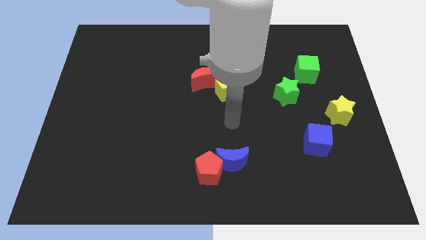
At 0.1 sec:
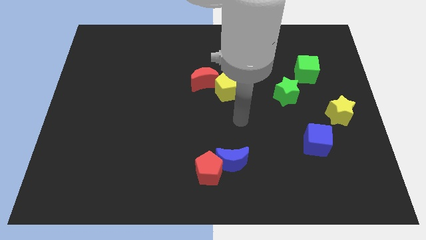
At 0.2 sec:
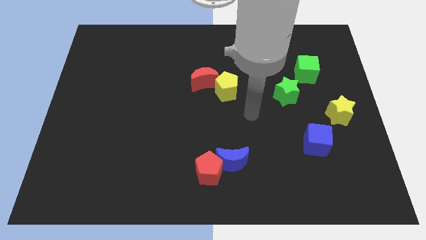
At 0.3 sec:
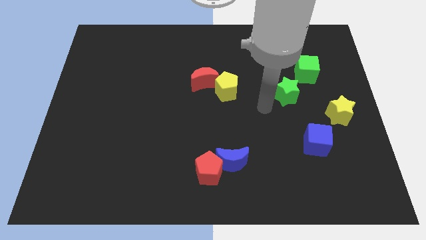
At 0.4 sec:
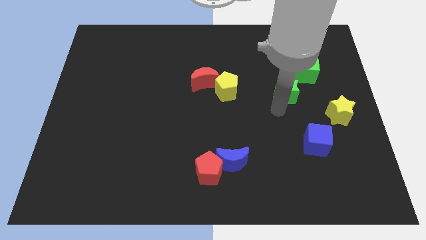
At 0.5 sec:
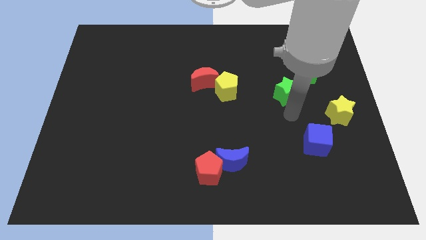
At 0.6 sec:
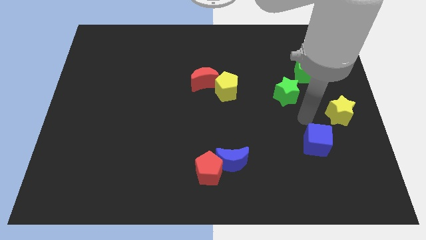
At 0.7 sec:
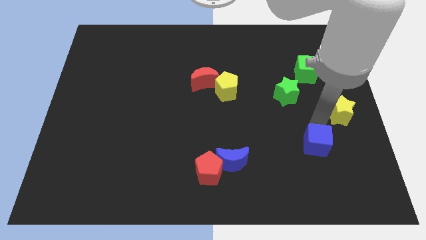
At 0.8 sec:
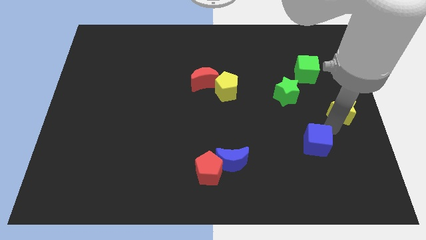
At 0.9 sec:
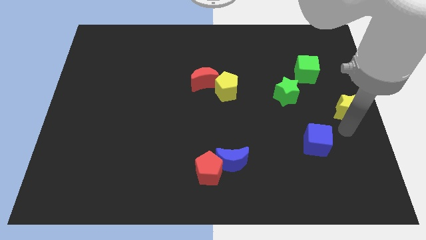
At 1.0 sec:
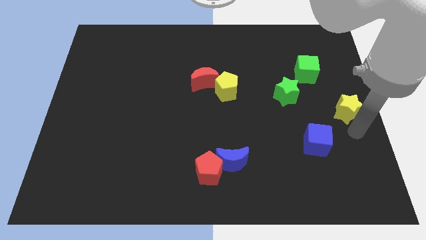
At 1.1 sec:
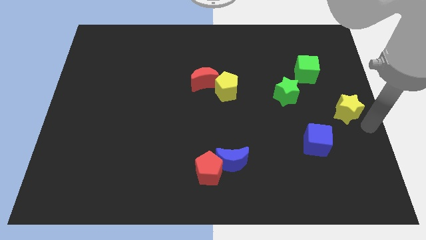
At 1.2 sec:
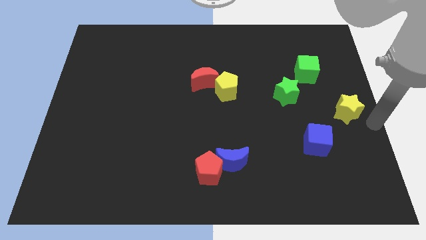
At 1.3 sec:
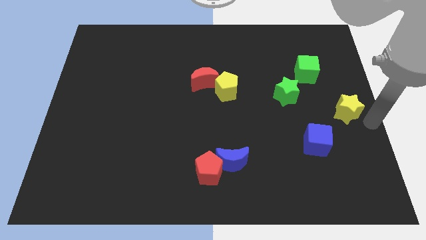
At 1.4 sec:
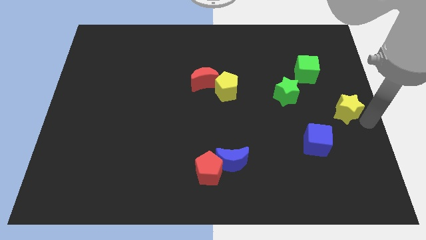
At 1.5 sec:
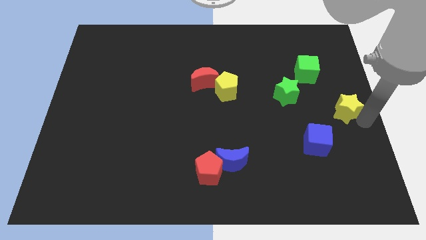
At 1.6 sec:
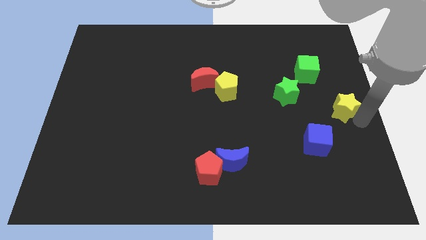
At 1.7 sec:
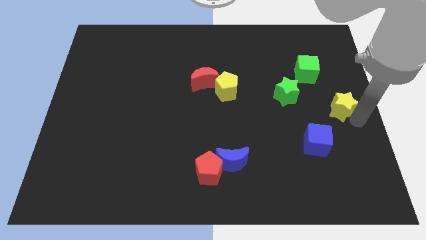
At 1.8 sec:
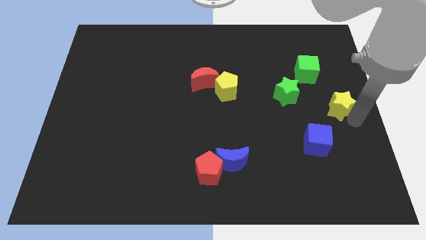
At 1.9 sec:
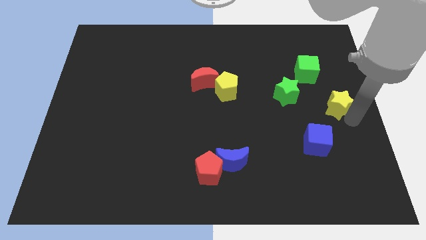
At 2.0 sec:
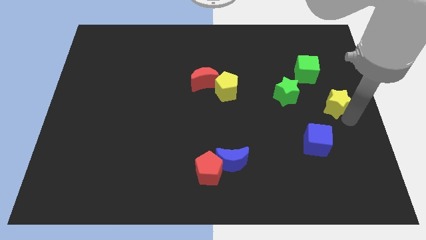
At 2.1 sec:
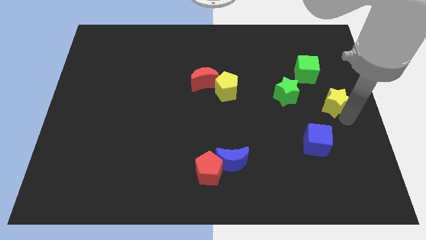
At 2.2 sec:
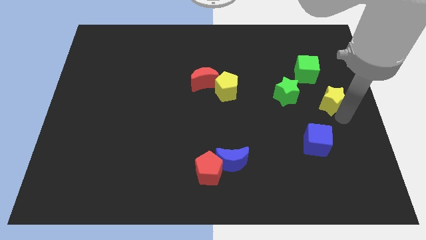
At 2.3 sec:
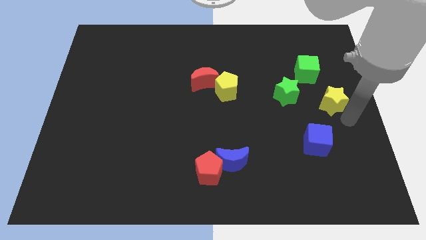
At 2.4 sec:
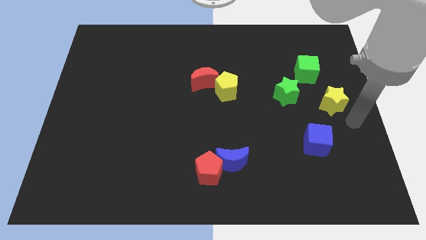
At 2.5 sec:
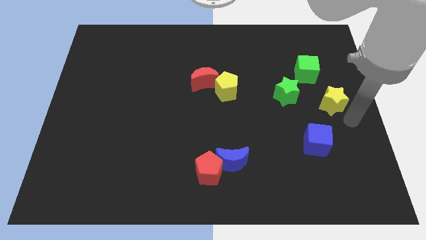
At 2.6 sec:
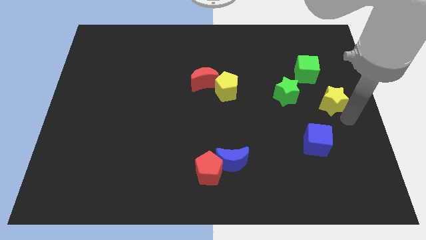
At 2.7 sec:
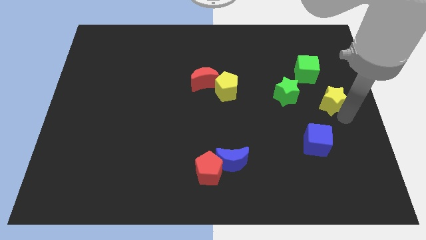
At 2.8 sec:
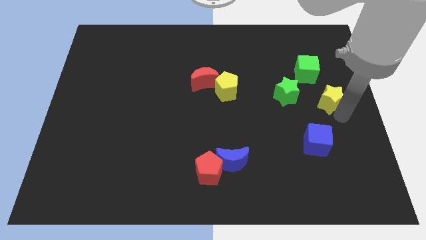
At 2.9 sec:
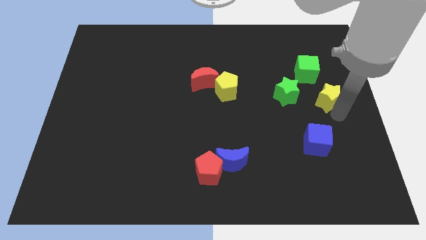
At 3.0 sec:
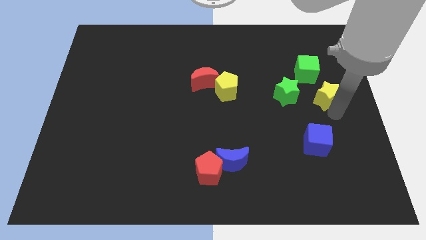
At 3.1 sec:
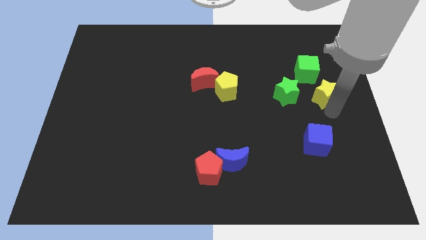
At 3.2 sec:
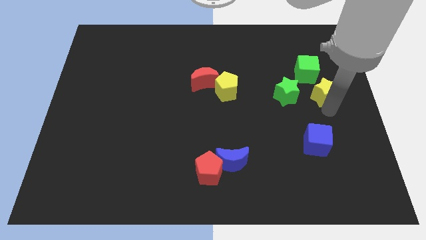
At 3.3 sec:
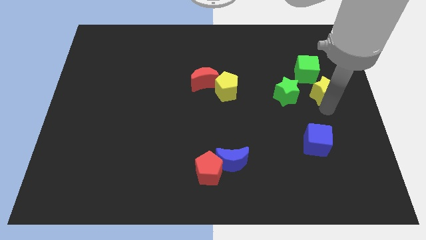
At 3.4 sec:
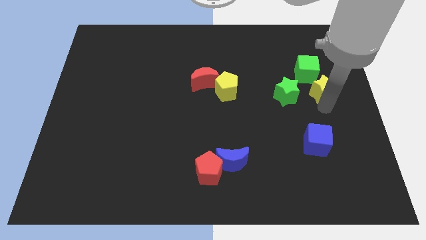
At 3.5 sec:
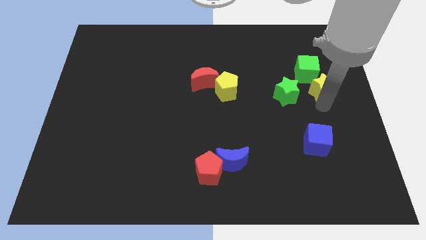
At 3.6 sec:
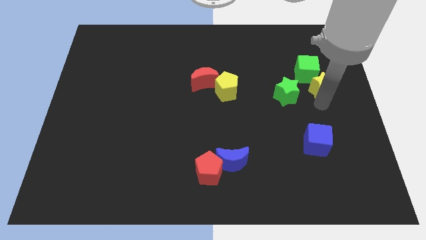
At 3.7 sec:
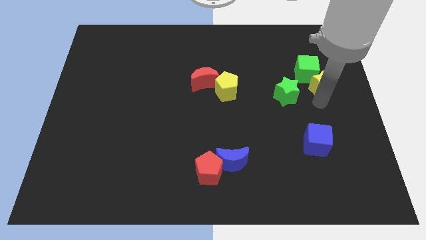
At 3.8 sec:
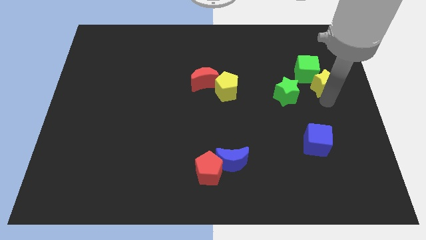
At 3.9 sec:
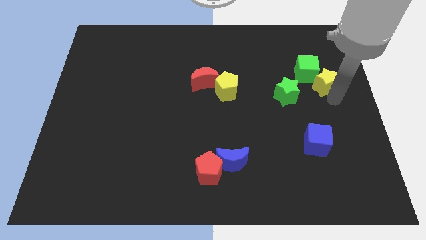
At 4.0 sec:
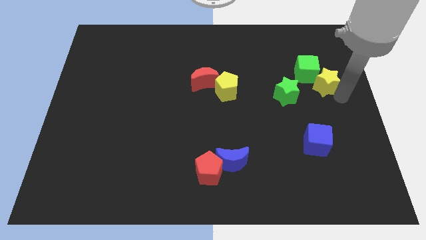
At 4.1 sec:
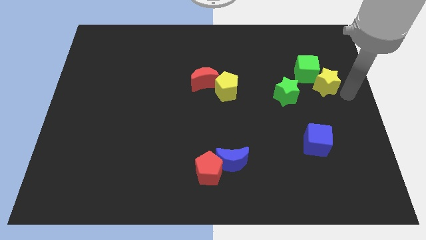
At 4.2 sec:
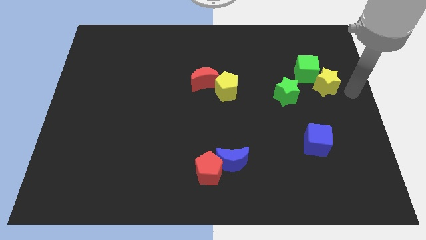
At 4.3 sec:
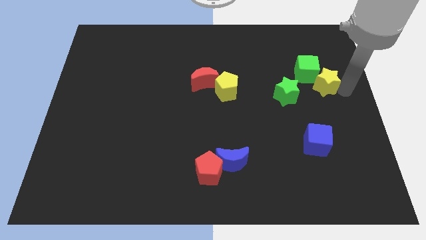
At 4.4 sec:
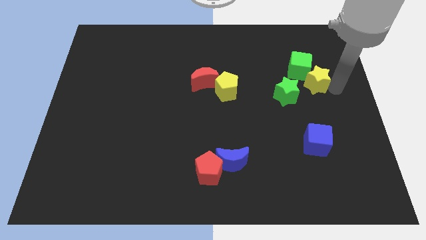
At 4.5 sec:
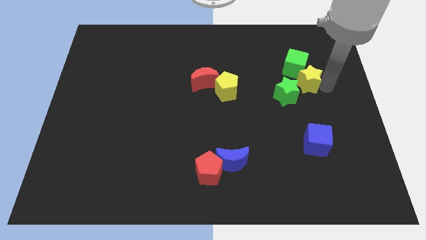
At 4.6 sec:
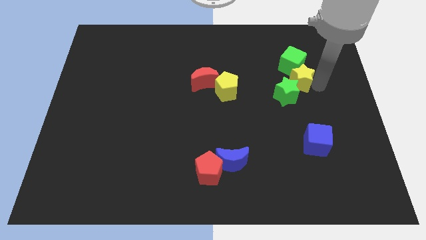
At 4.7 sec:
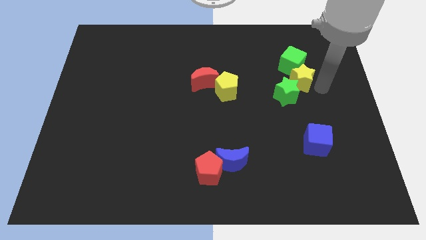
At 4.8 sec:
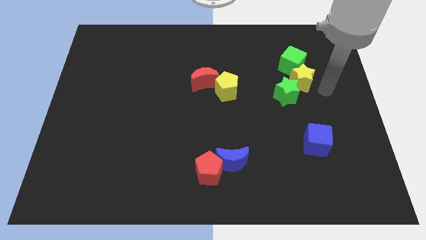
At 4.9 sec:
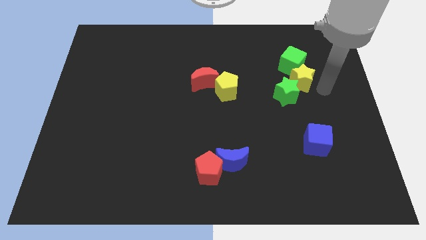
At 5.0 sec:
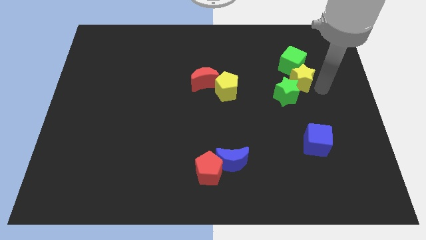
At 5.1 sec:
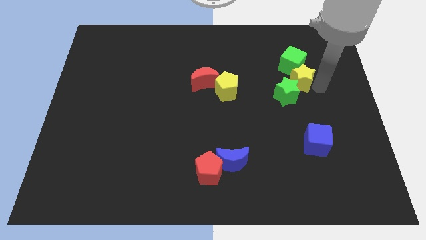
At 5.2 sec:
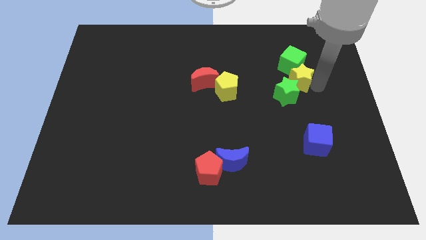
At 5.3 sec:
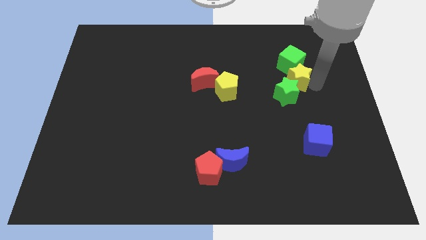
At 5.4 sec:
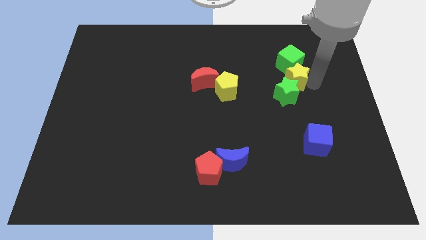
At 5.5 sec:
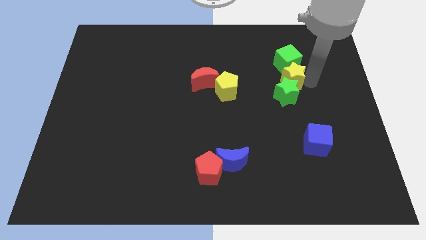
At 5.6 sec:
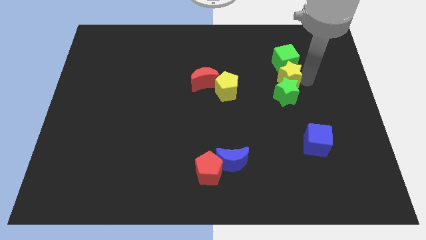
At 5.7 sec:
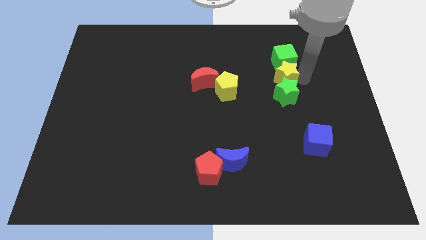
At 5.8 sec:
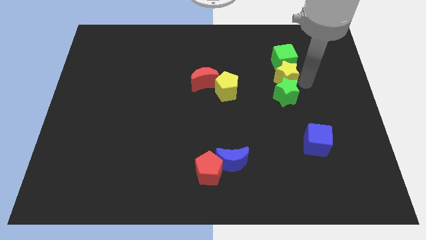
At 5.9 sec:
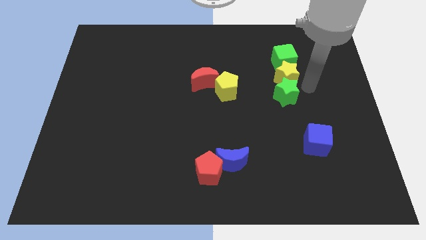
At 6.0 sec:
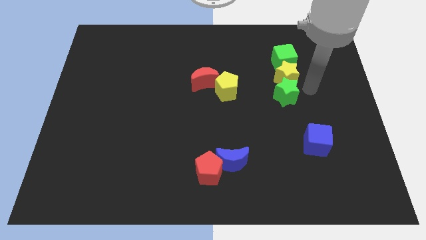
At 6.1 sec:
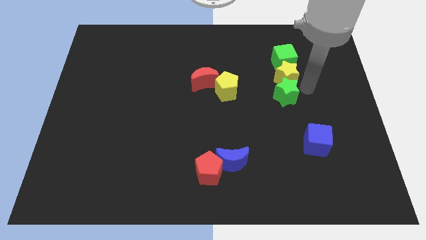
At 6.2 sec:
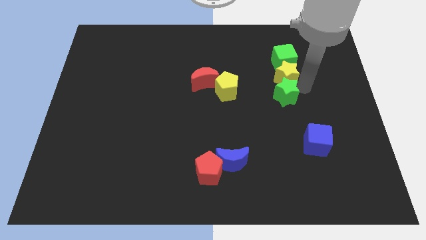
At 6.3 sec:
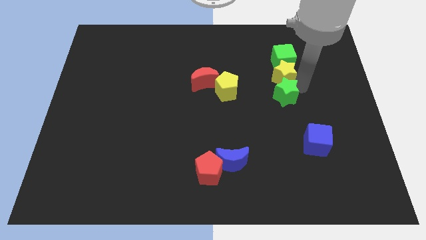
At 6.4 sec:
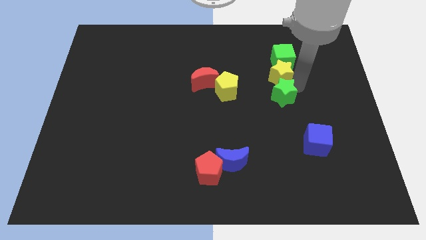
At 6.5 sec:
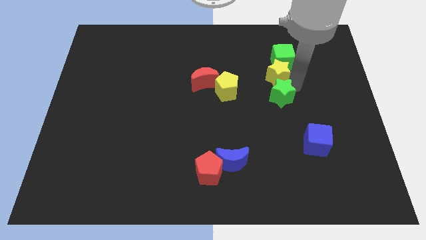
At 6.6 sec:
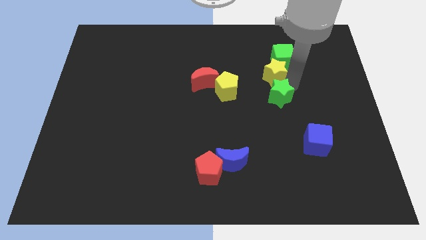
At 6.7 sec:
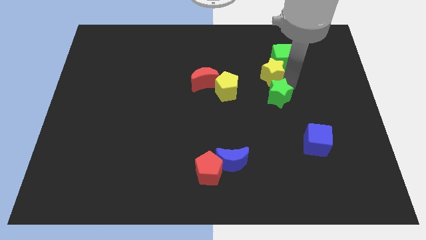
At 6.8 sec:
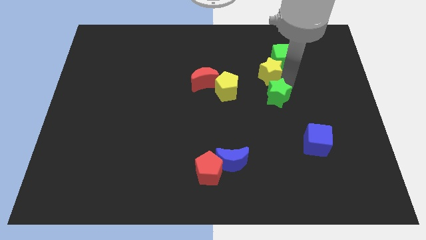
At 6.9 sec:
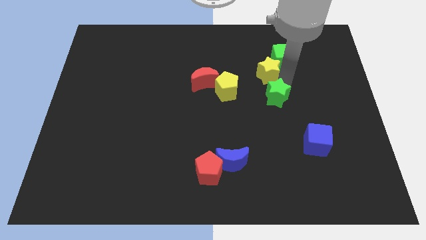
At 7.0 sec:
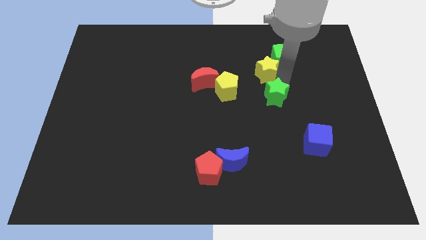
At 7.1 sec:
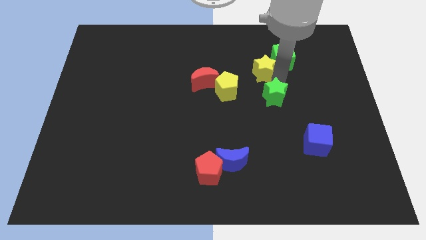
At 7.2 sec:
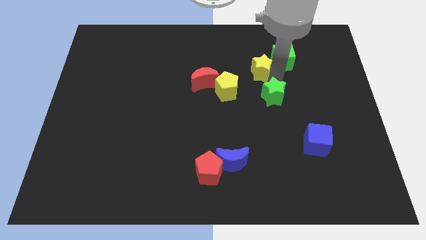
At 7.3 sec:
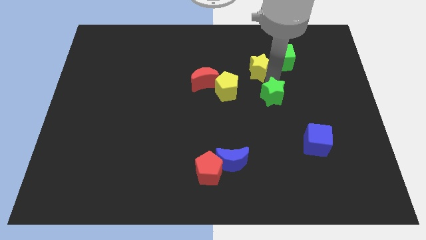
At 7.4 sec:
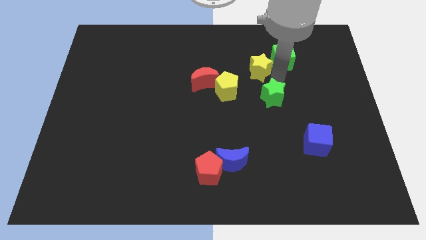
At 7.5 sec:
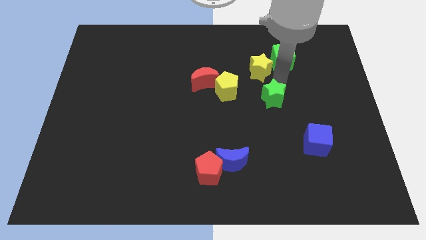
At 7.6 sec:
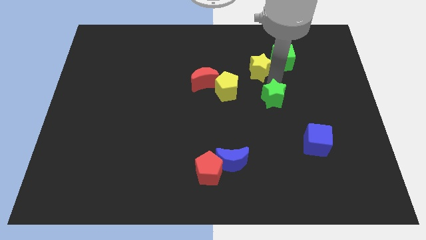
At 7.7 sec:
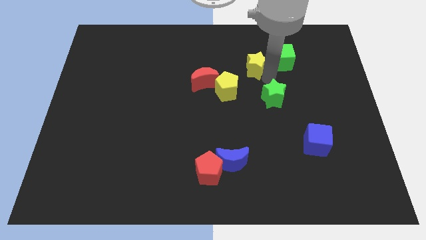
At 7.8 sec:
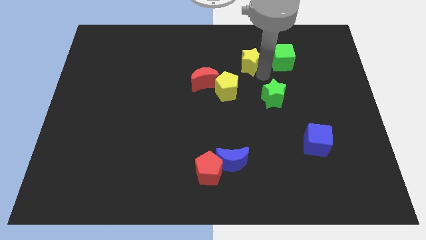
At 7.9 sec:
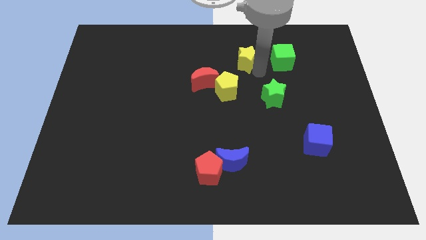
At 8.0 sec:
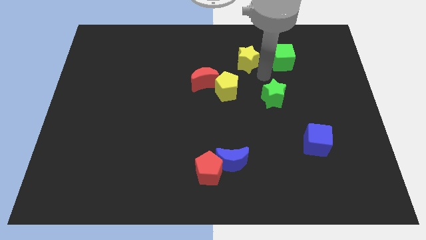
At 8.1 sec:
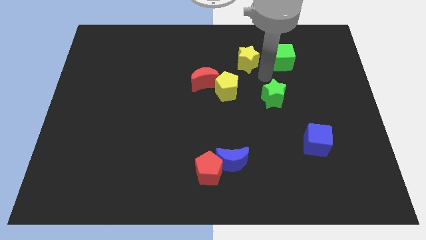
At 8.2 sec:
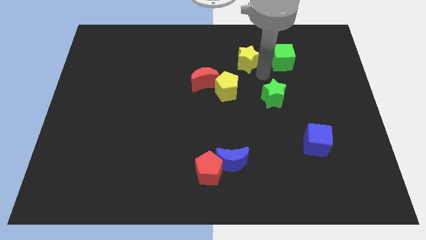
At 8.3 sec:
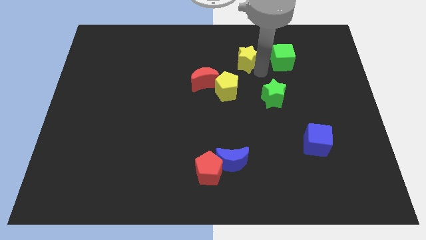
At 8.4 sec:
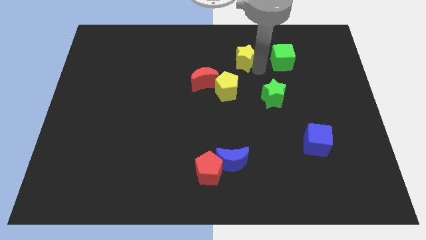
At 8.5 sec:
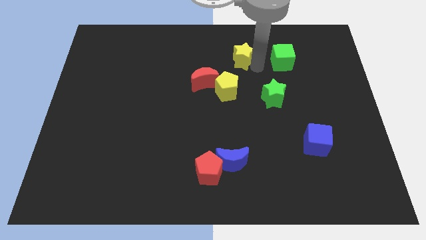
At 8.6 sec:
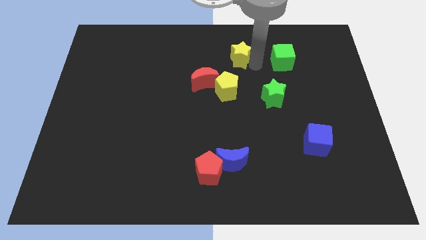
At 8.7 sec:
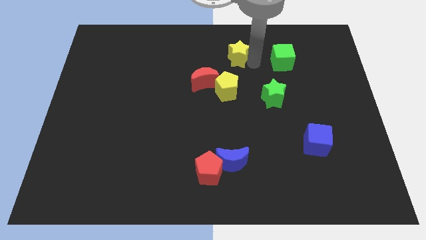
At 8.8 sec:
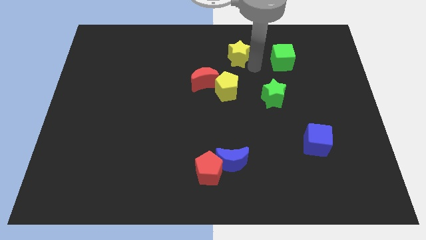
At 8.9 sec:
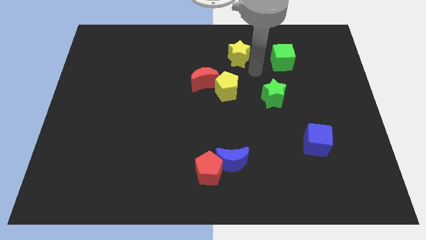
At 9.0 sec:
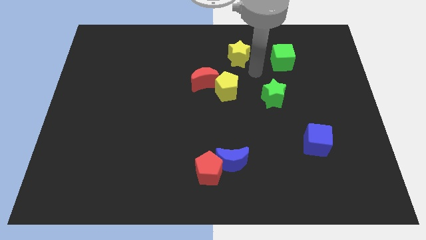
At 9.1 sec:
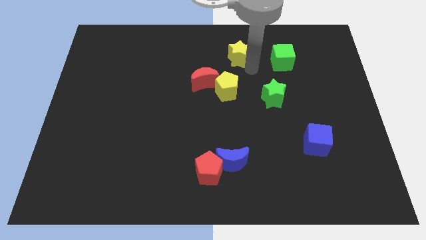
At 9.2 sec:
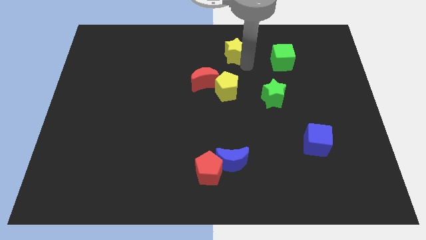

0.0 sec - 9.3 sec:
push the yellow star to the top side
